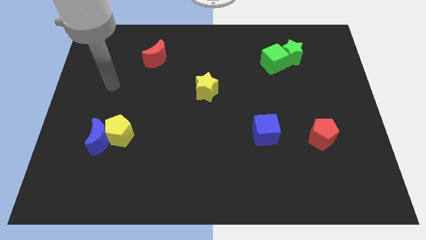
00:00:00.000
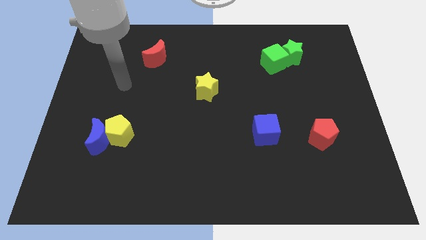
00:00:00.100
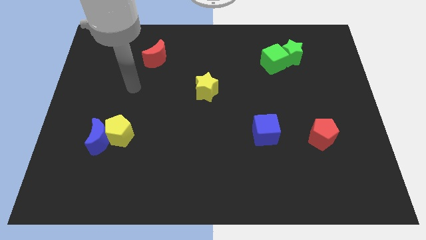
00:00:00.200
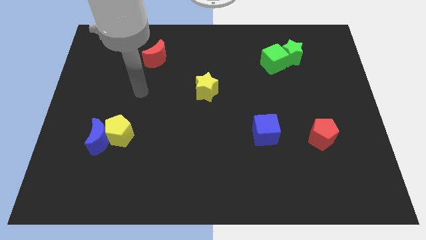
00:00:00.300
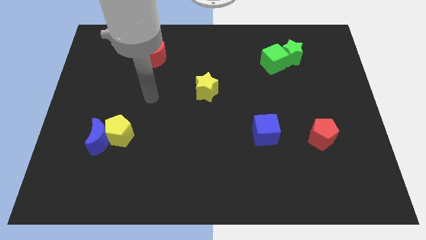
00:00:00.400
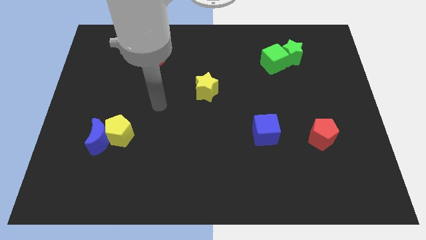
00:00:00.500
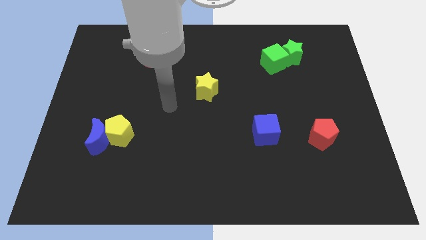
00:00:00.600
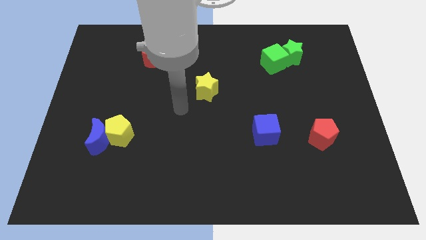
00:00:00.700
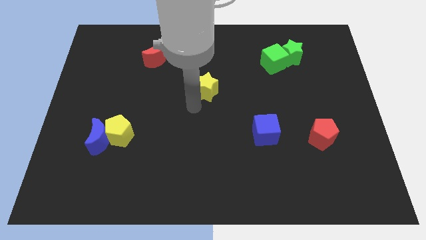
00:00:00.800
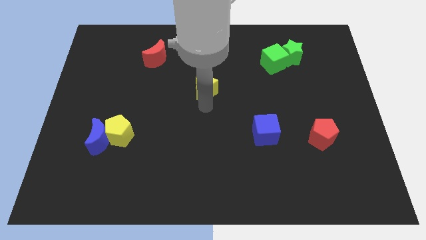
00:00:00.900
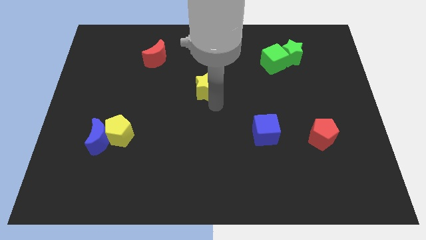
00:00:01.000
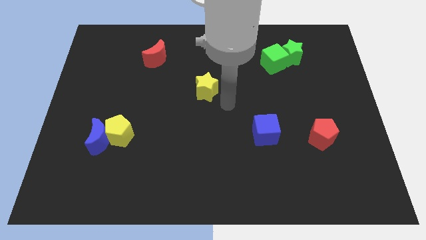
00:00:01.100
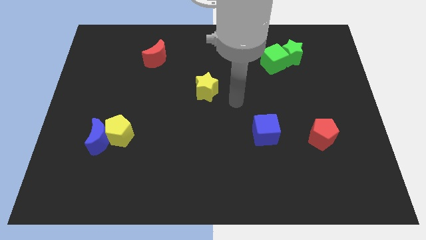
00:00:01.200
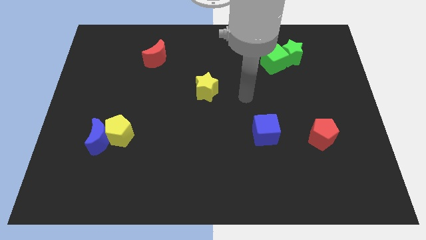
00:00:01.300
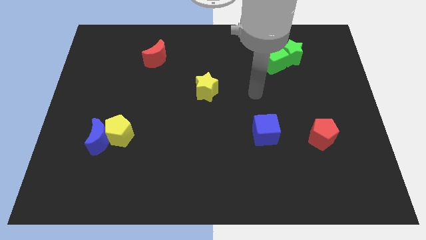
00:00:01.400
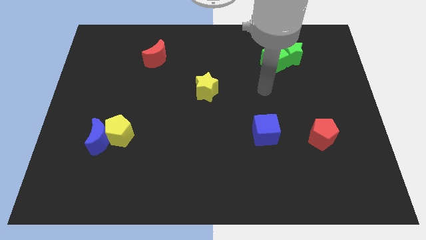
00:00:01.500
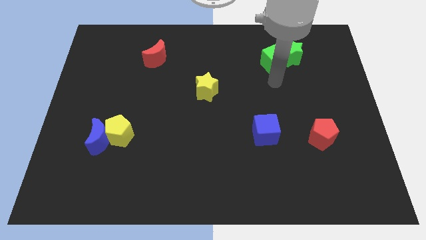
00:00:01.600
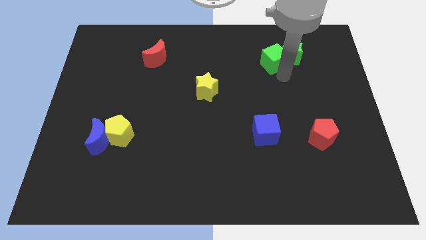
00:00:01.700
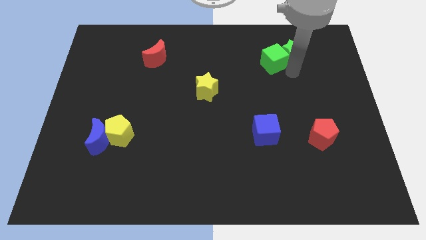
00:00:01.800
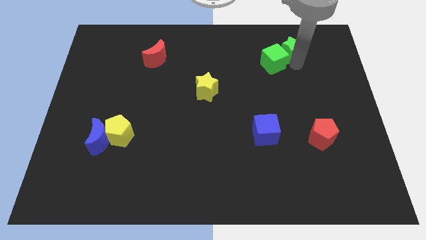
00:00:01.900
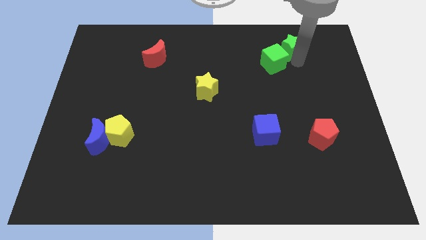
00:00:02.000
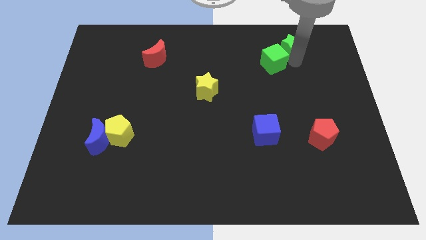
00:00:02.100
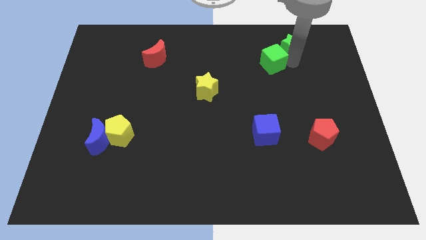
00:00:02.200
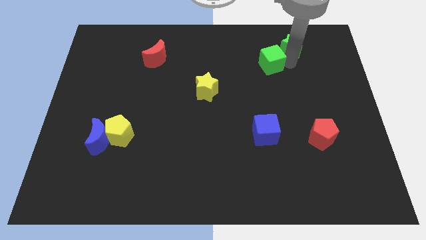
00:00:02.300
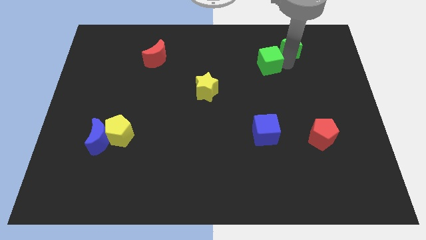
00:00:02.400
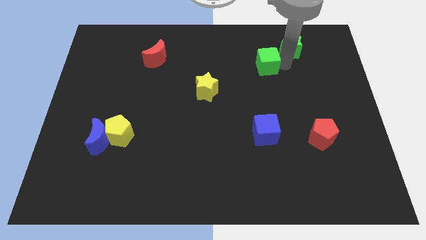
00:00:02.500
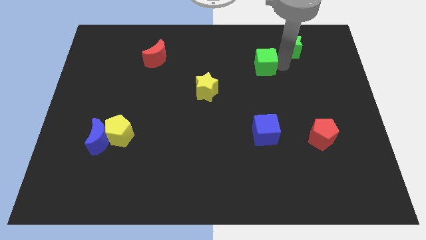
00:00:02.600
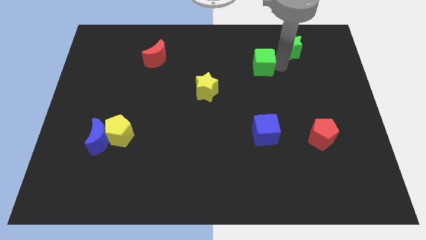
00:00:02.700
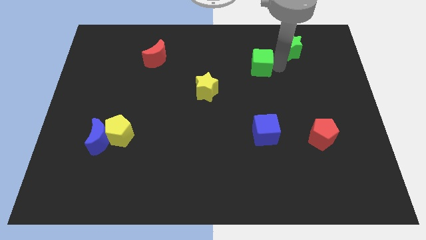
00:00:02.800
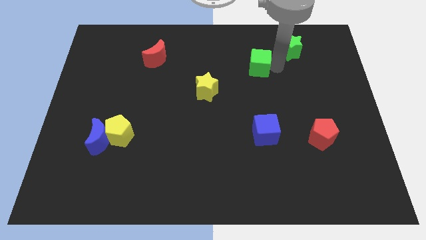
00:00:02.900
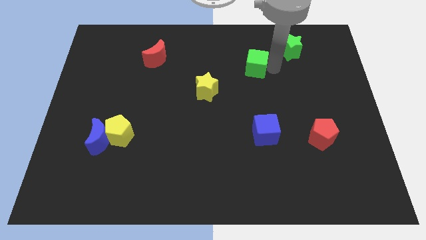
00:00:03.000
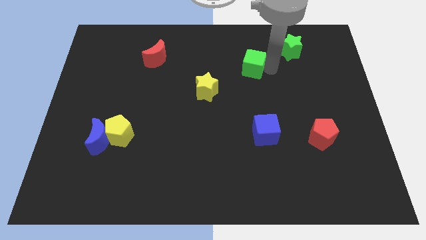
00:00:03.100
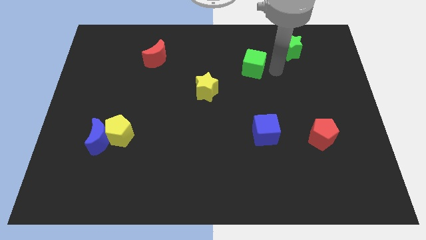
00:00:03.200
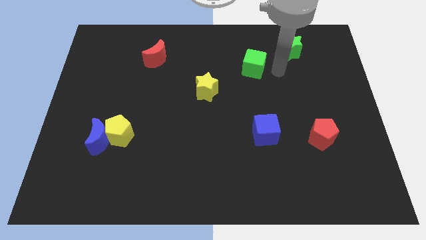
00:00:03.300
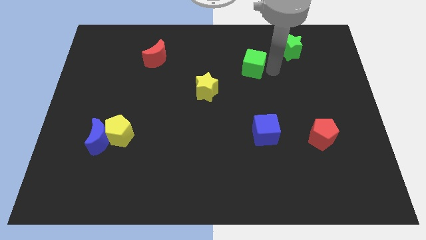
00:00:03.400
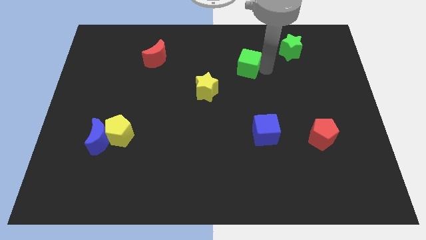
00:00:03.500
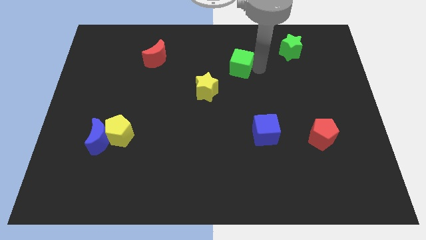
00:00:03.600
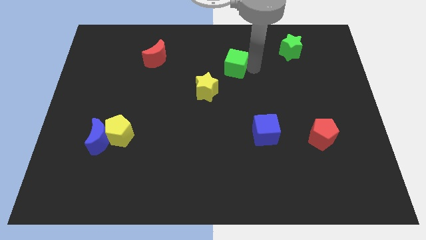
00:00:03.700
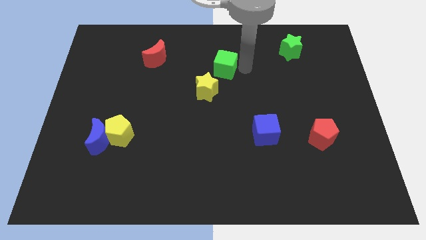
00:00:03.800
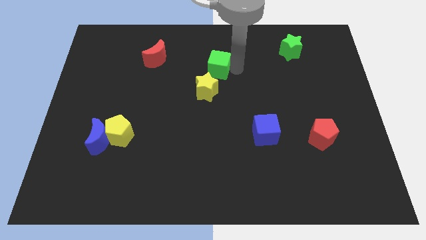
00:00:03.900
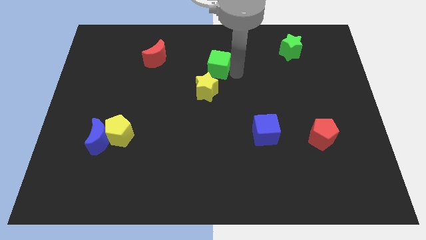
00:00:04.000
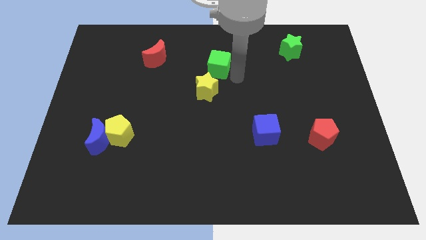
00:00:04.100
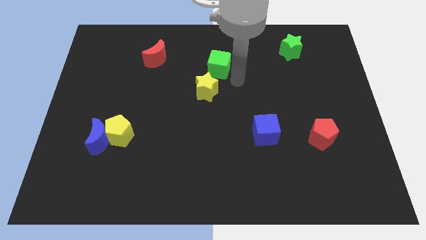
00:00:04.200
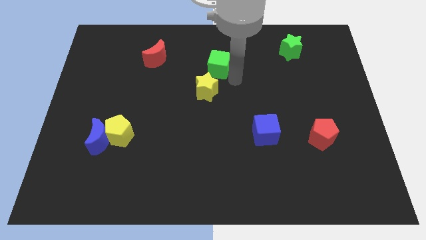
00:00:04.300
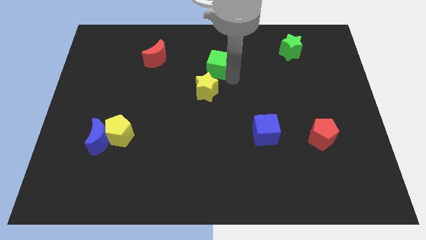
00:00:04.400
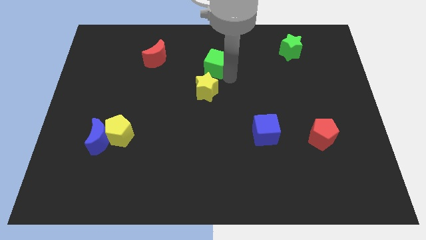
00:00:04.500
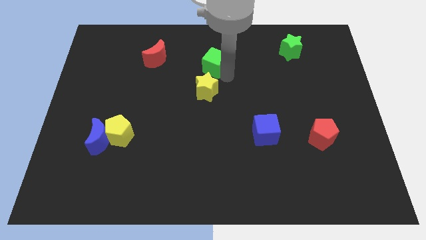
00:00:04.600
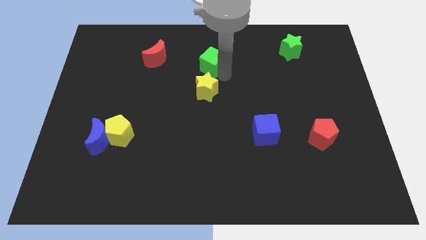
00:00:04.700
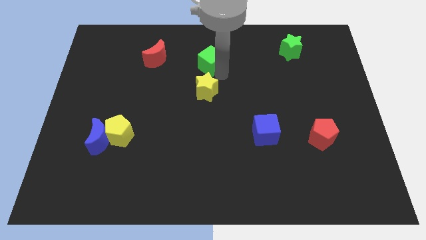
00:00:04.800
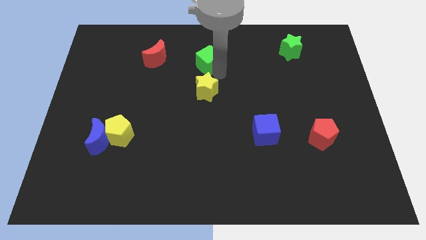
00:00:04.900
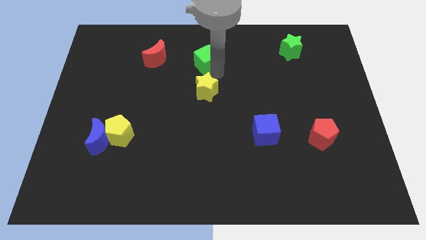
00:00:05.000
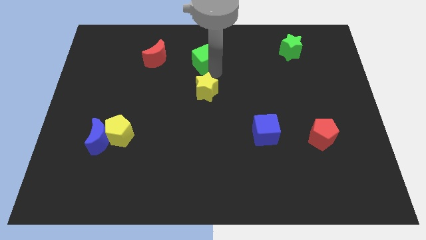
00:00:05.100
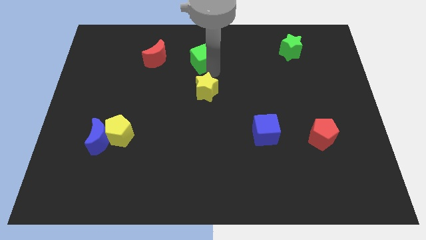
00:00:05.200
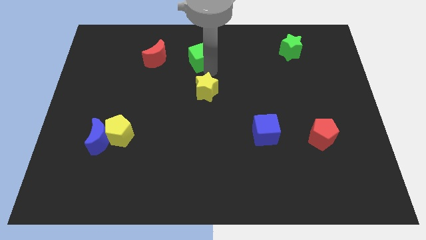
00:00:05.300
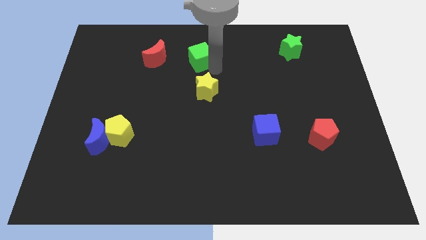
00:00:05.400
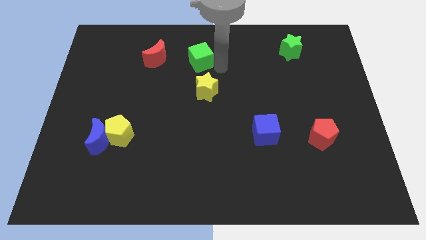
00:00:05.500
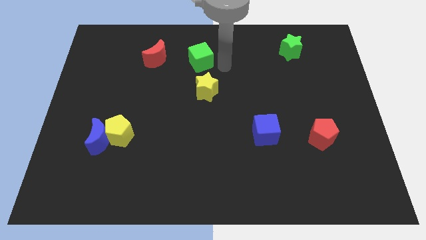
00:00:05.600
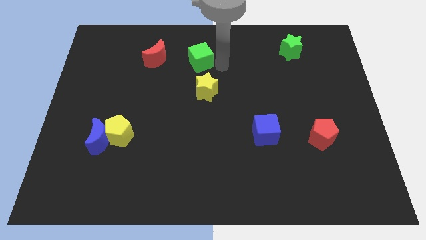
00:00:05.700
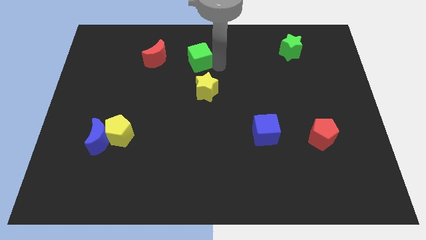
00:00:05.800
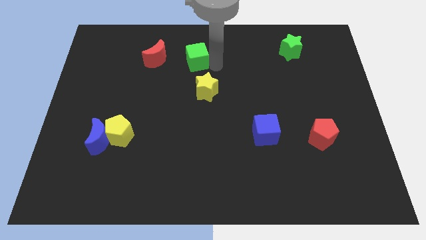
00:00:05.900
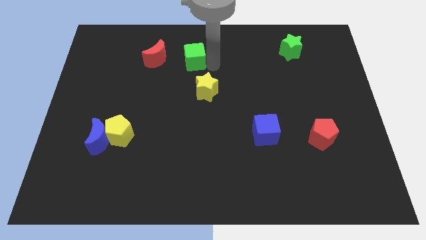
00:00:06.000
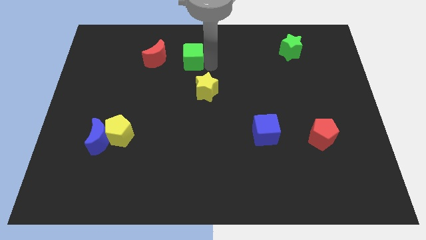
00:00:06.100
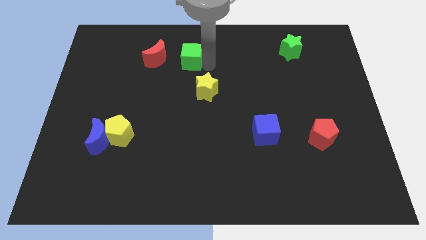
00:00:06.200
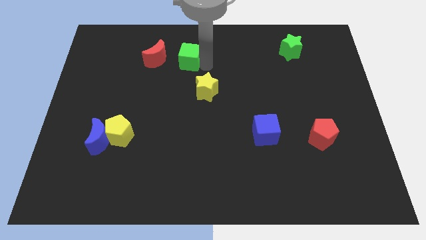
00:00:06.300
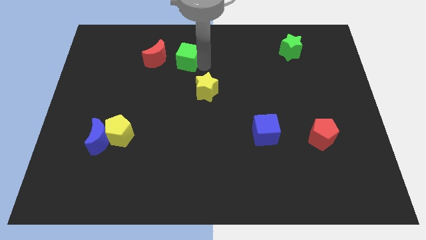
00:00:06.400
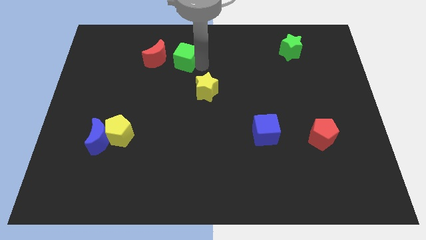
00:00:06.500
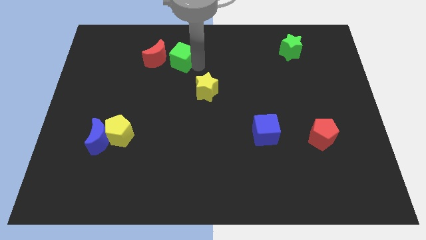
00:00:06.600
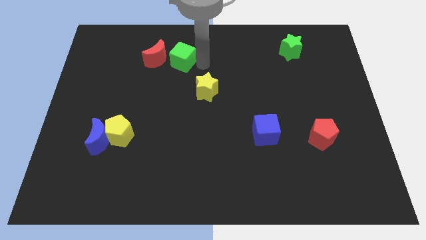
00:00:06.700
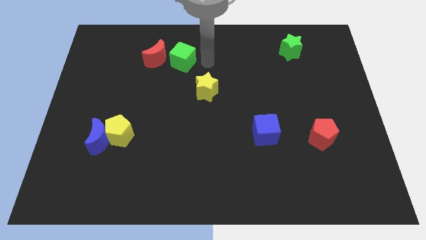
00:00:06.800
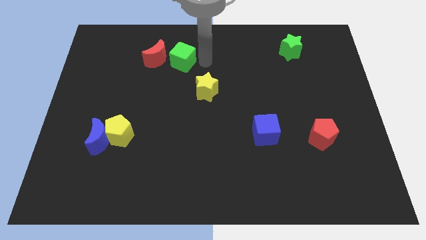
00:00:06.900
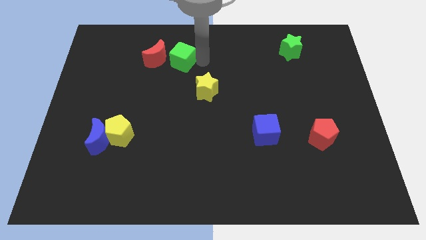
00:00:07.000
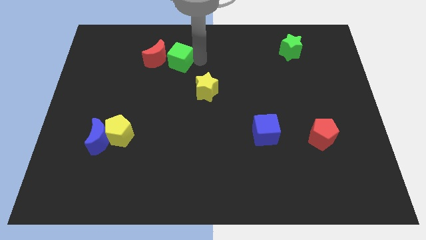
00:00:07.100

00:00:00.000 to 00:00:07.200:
push the green cube close to the red moon
